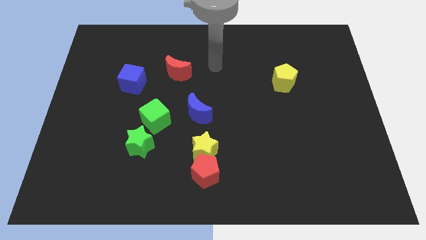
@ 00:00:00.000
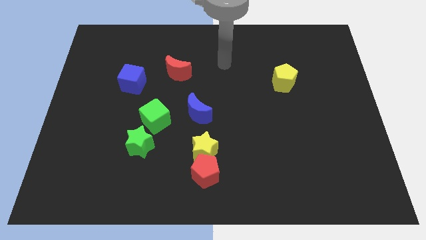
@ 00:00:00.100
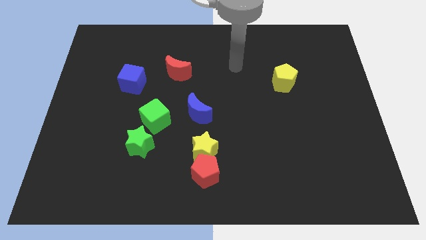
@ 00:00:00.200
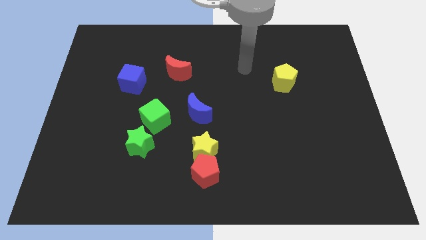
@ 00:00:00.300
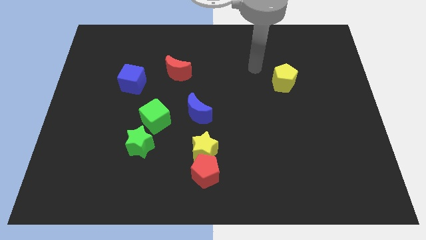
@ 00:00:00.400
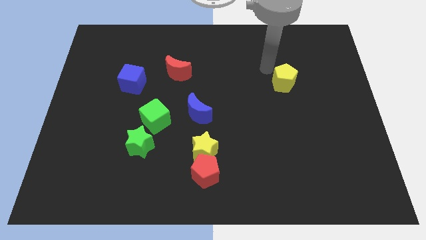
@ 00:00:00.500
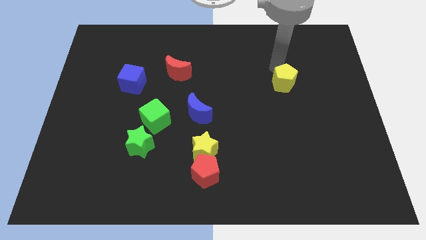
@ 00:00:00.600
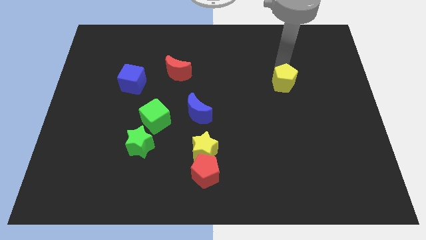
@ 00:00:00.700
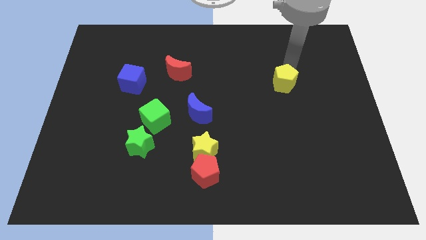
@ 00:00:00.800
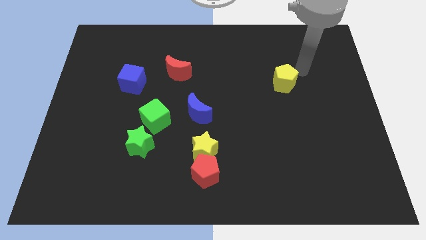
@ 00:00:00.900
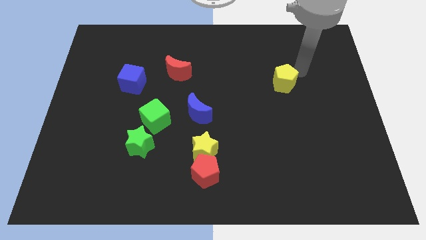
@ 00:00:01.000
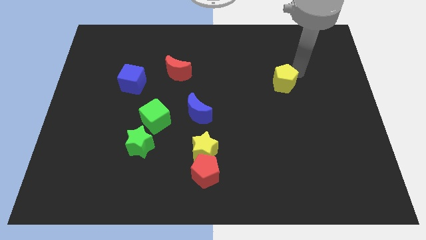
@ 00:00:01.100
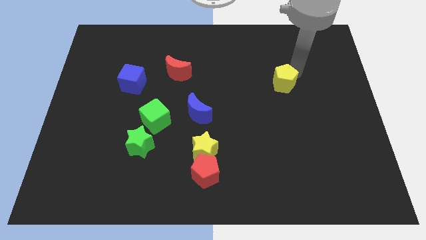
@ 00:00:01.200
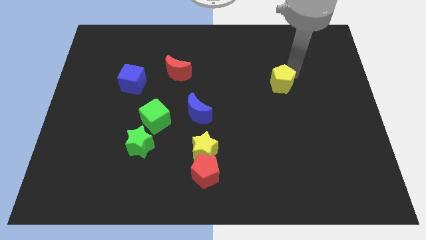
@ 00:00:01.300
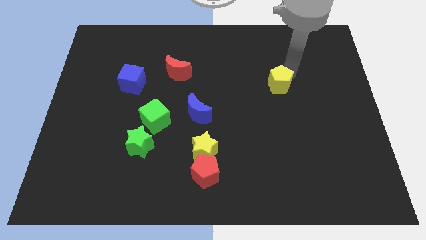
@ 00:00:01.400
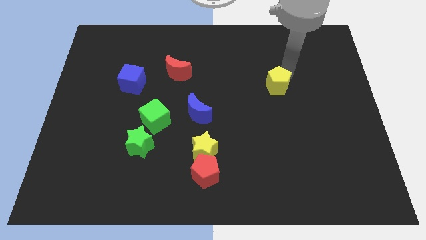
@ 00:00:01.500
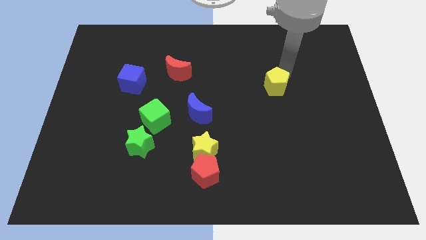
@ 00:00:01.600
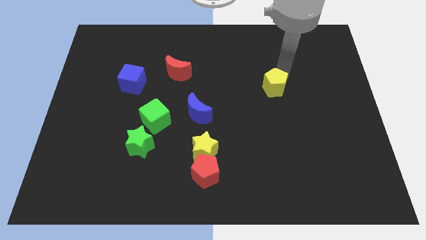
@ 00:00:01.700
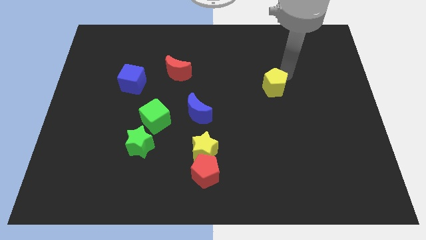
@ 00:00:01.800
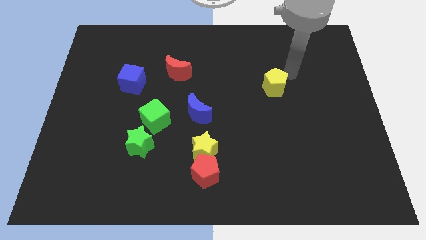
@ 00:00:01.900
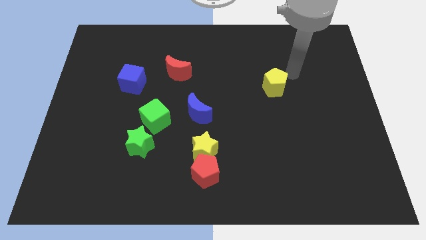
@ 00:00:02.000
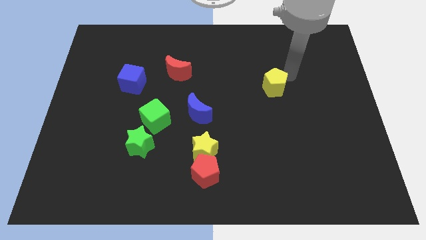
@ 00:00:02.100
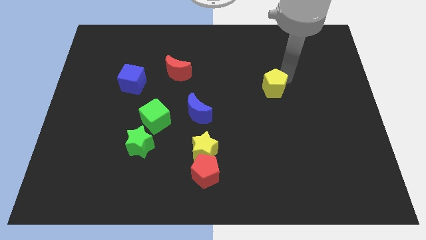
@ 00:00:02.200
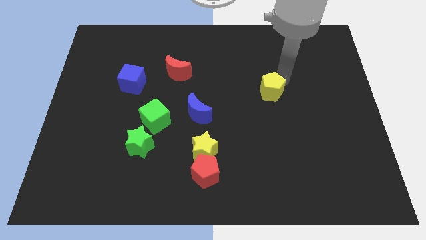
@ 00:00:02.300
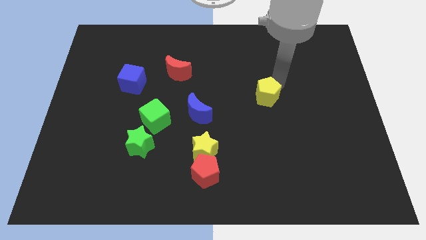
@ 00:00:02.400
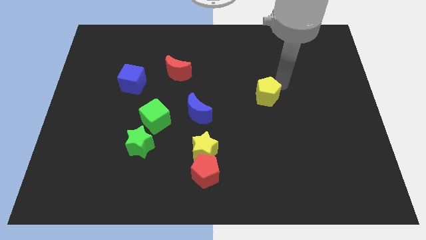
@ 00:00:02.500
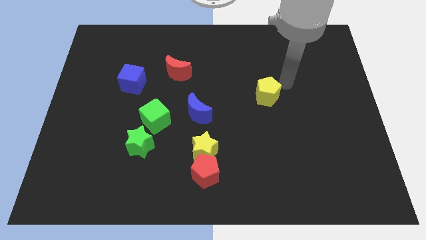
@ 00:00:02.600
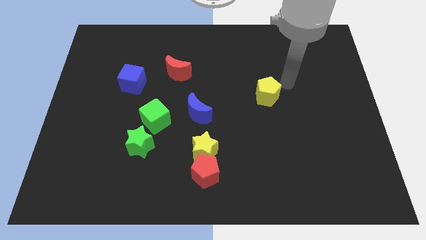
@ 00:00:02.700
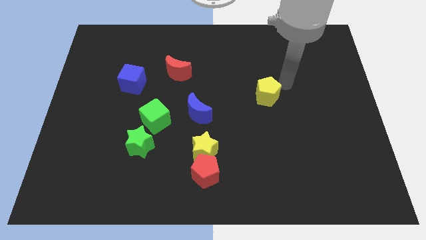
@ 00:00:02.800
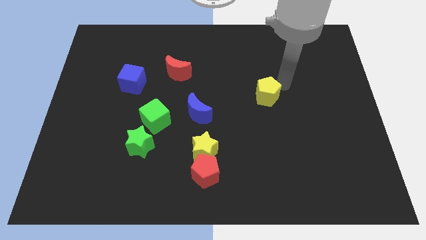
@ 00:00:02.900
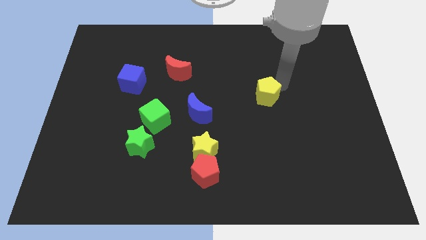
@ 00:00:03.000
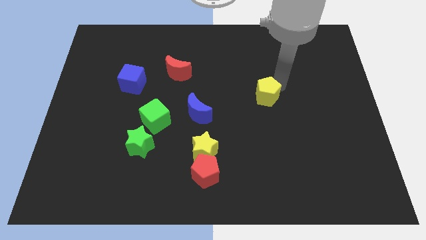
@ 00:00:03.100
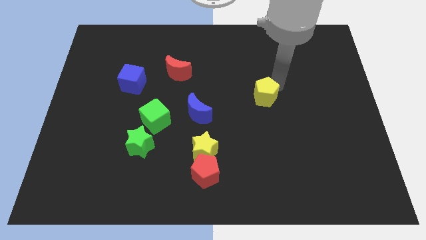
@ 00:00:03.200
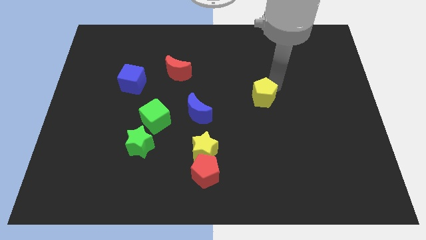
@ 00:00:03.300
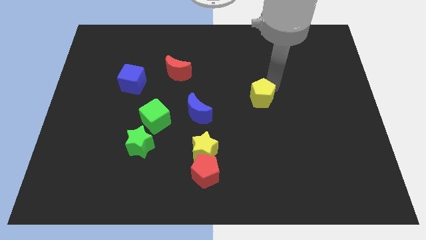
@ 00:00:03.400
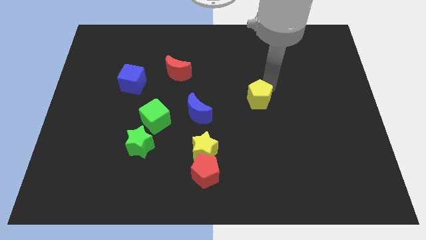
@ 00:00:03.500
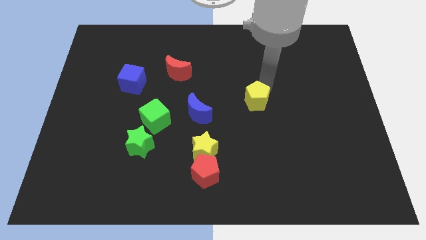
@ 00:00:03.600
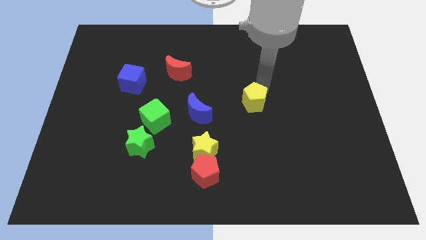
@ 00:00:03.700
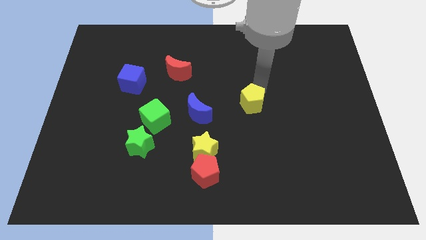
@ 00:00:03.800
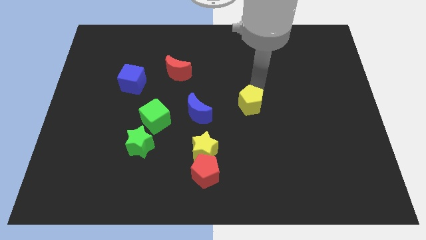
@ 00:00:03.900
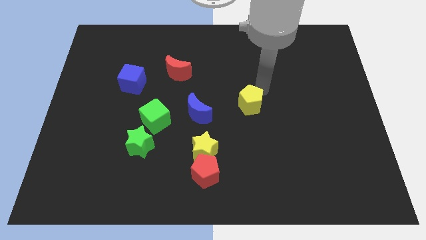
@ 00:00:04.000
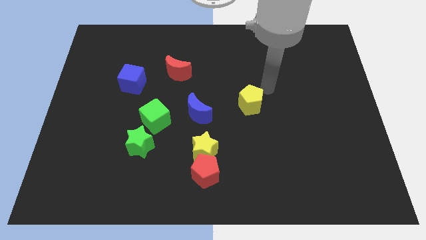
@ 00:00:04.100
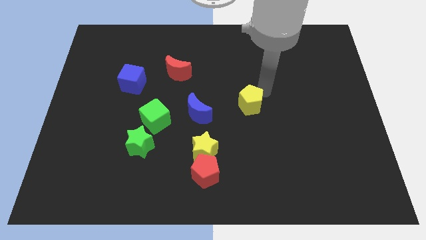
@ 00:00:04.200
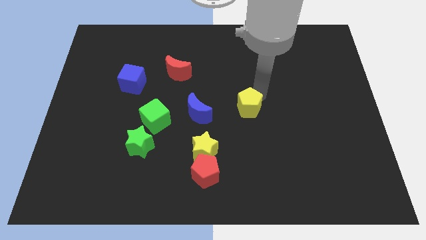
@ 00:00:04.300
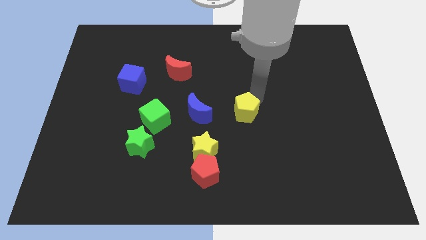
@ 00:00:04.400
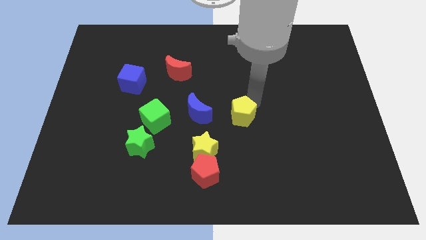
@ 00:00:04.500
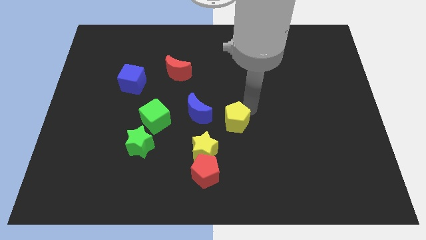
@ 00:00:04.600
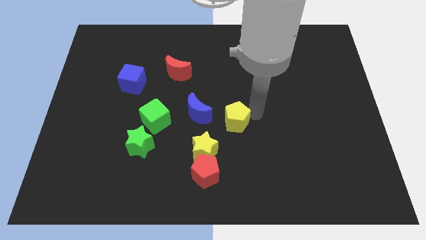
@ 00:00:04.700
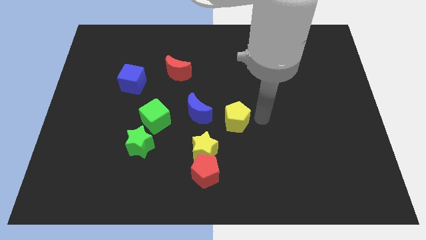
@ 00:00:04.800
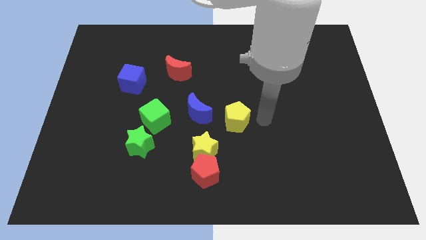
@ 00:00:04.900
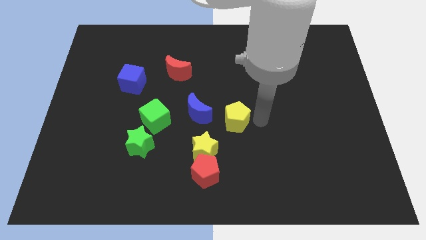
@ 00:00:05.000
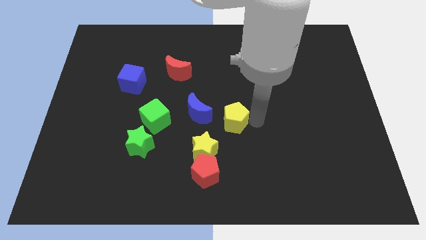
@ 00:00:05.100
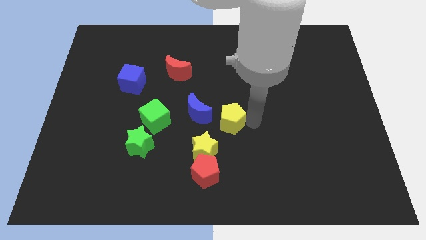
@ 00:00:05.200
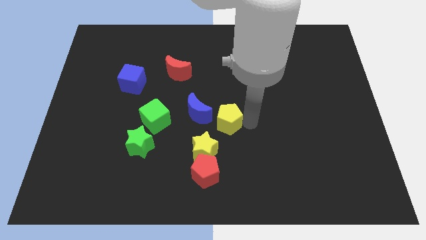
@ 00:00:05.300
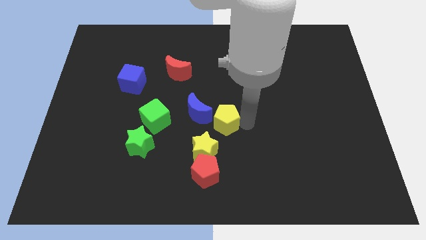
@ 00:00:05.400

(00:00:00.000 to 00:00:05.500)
put the yellow pentagon to the right side of the green cube

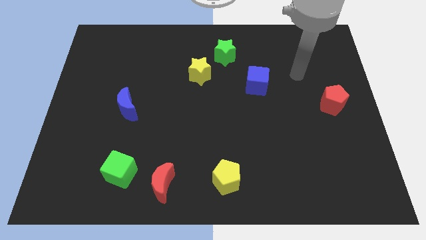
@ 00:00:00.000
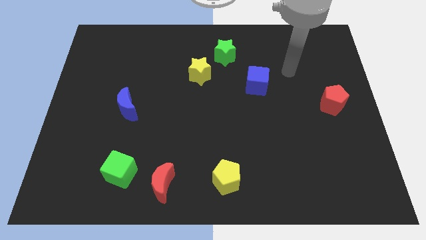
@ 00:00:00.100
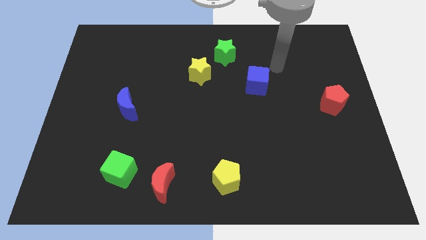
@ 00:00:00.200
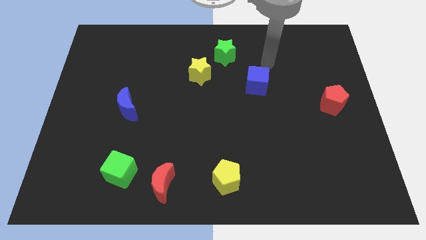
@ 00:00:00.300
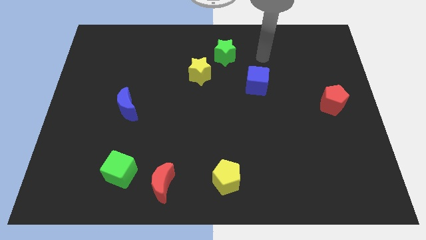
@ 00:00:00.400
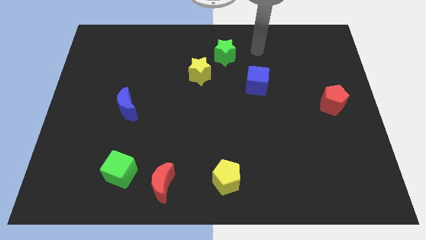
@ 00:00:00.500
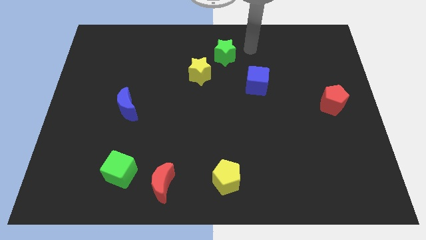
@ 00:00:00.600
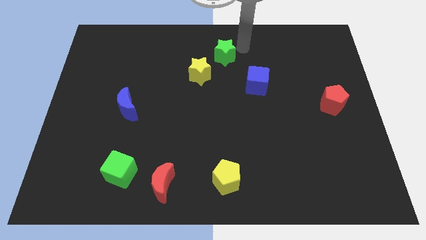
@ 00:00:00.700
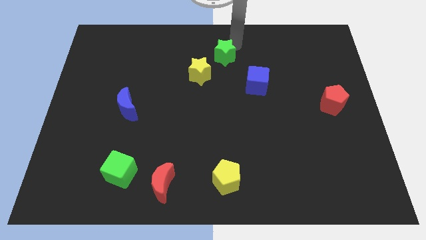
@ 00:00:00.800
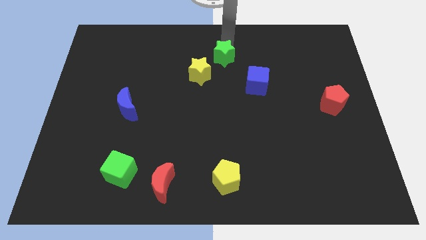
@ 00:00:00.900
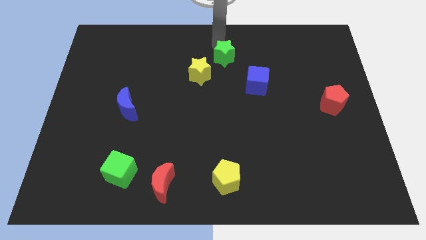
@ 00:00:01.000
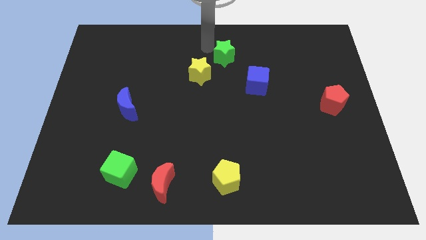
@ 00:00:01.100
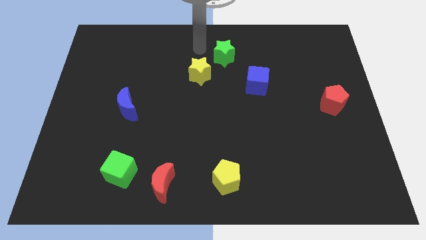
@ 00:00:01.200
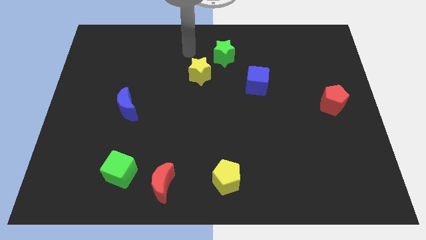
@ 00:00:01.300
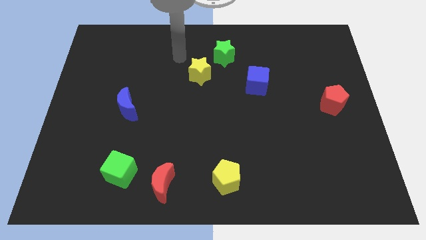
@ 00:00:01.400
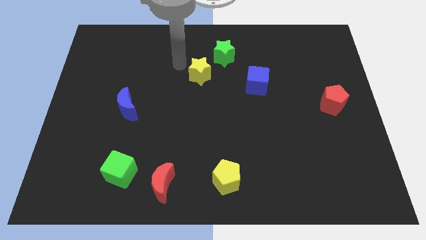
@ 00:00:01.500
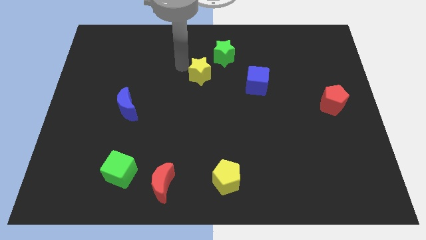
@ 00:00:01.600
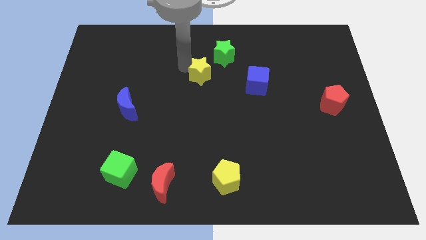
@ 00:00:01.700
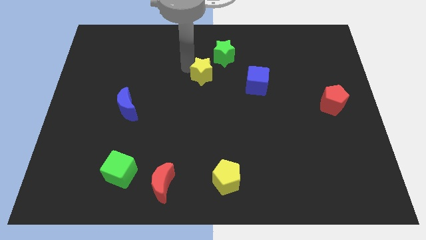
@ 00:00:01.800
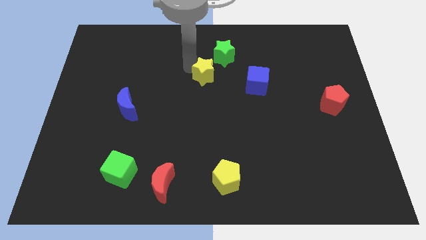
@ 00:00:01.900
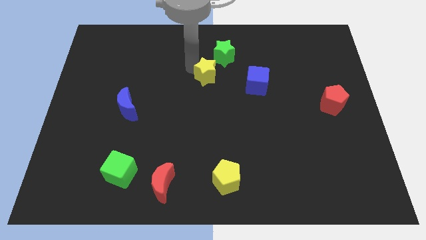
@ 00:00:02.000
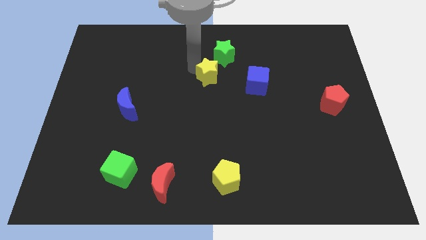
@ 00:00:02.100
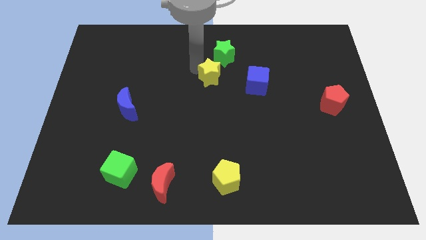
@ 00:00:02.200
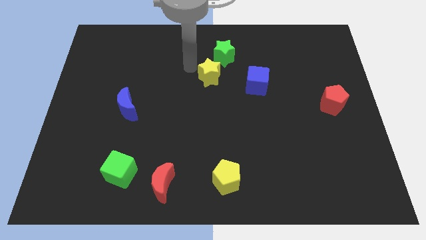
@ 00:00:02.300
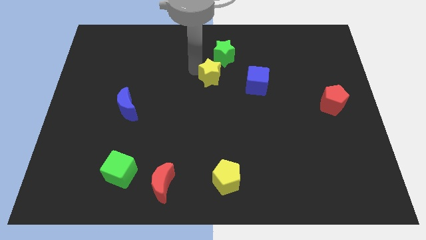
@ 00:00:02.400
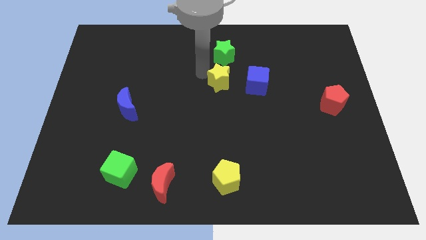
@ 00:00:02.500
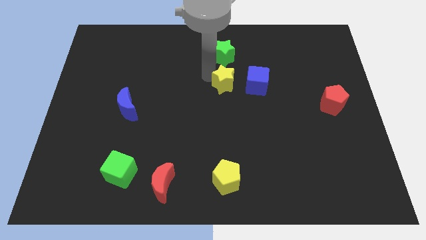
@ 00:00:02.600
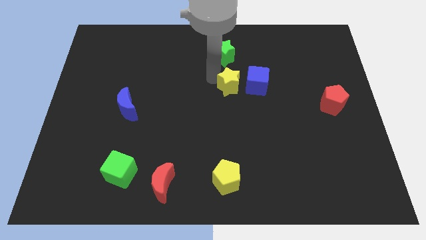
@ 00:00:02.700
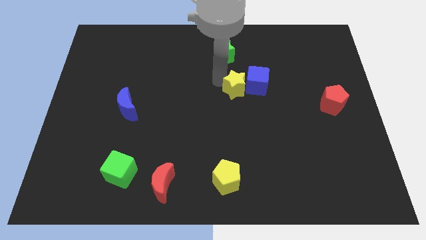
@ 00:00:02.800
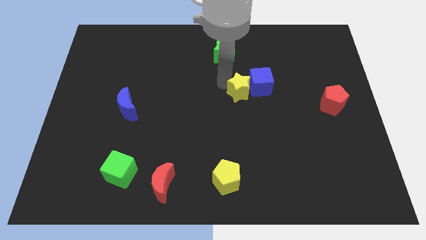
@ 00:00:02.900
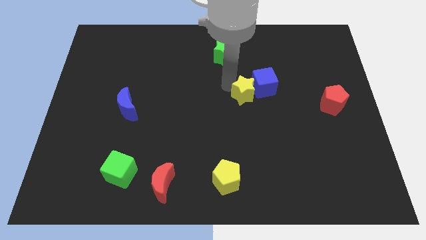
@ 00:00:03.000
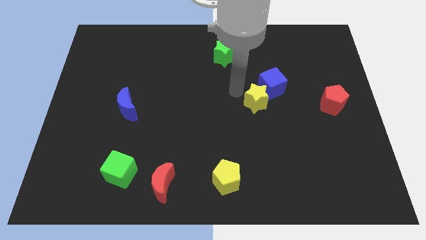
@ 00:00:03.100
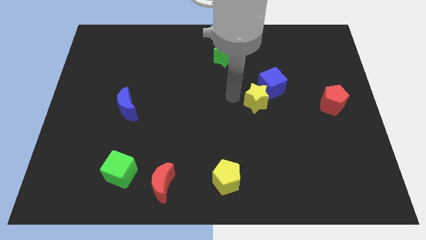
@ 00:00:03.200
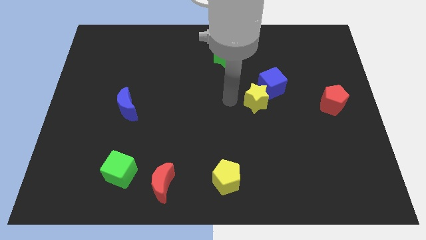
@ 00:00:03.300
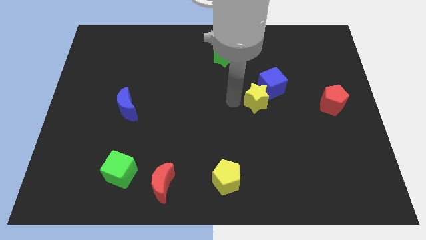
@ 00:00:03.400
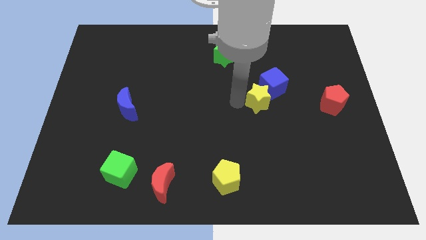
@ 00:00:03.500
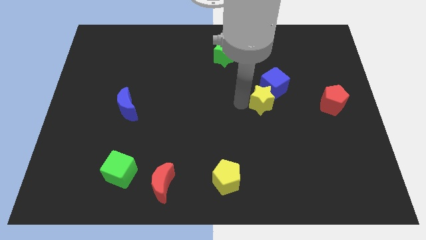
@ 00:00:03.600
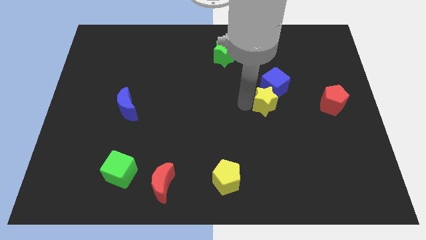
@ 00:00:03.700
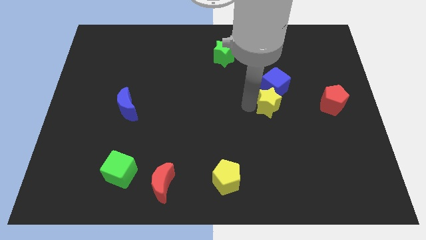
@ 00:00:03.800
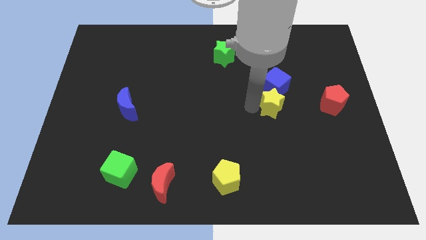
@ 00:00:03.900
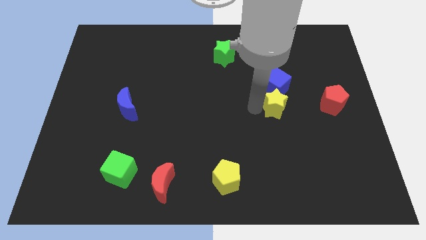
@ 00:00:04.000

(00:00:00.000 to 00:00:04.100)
push the yellow star to the bottom right side of the blue cube
